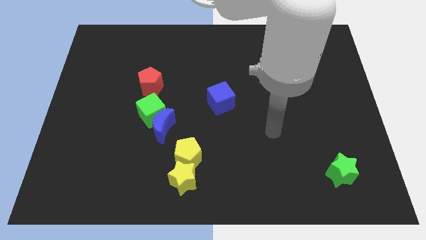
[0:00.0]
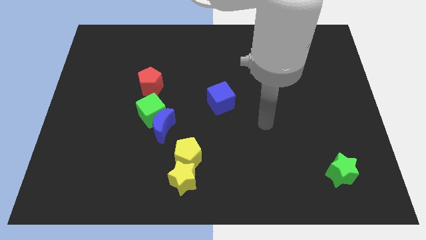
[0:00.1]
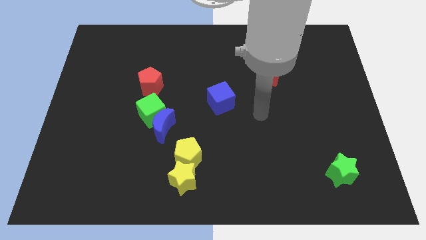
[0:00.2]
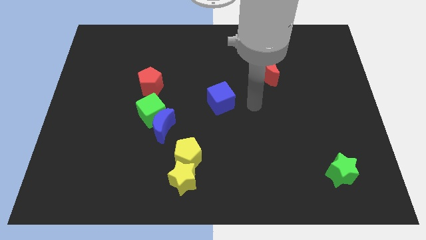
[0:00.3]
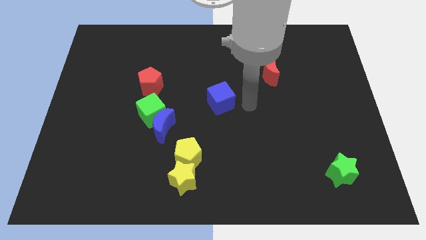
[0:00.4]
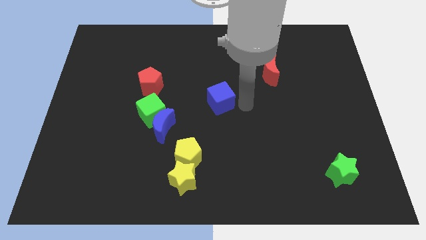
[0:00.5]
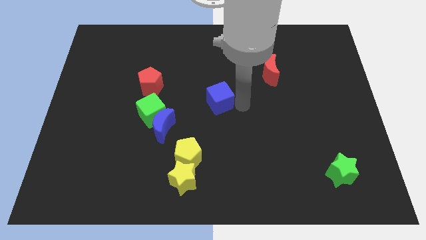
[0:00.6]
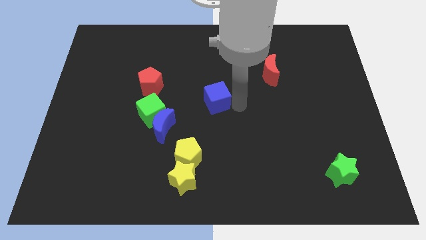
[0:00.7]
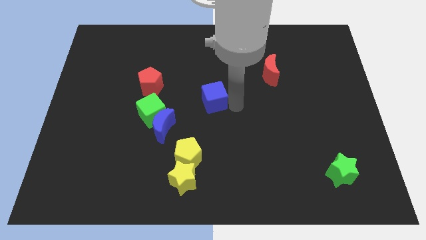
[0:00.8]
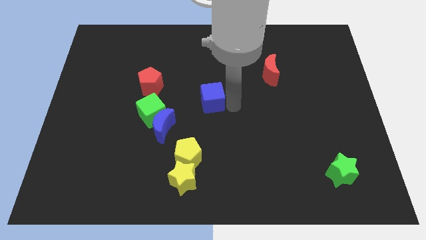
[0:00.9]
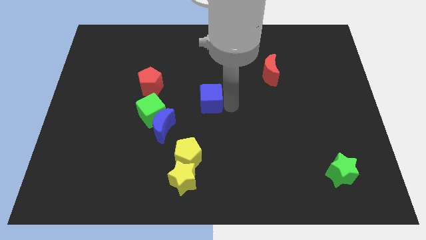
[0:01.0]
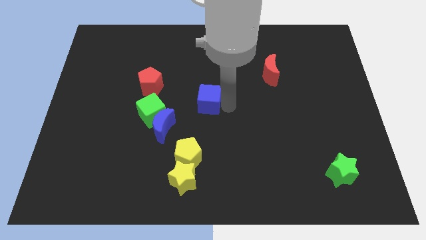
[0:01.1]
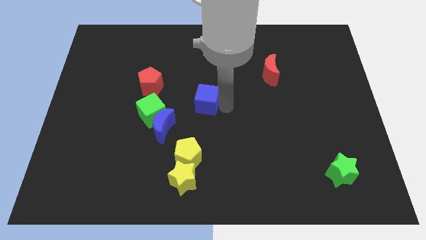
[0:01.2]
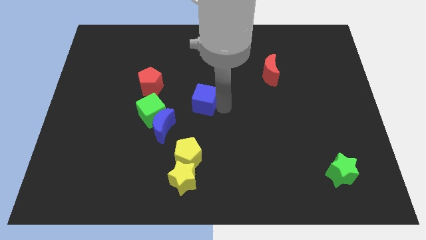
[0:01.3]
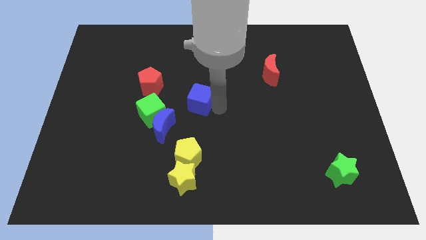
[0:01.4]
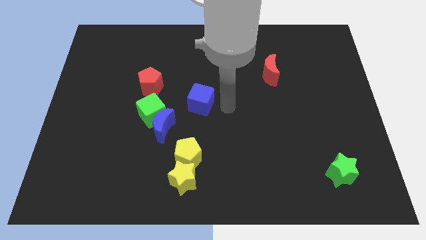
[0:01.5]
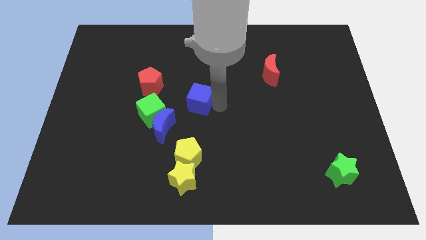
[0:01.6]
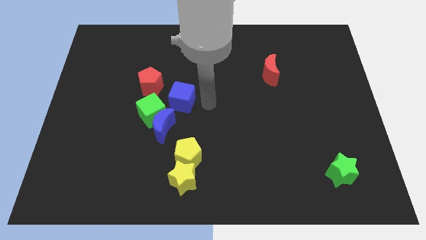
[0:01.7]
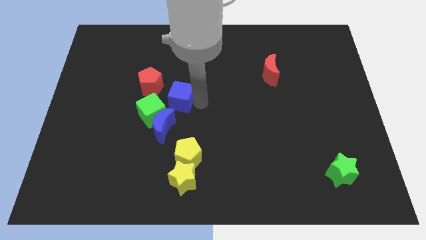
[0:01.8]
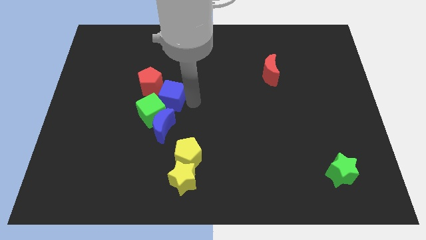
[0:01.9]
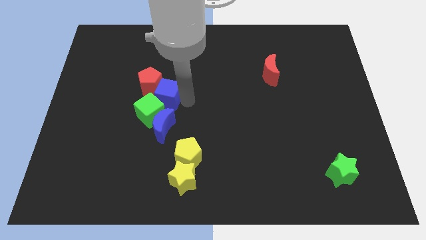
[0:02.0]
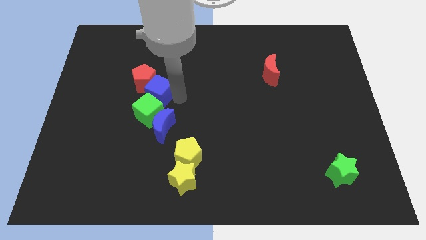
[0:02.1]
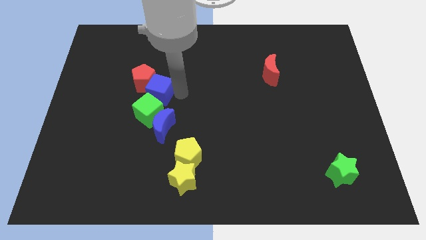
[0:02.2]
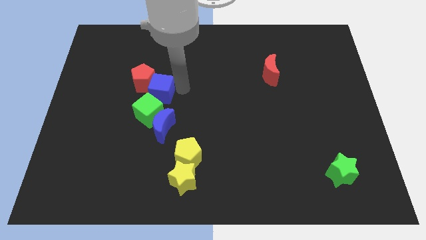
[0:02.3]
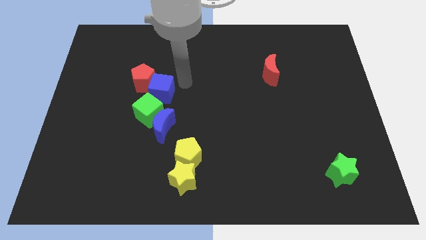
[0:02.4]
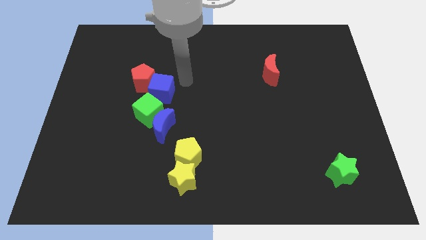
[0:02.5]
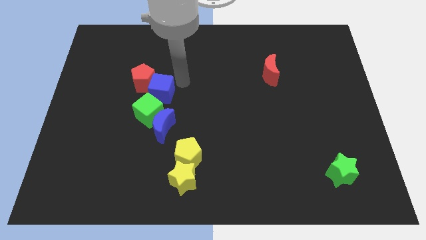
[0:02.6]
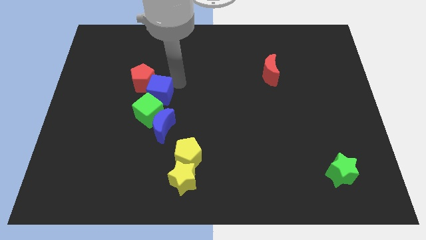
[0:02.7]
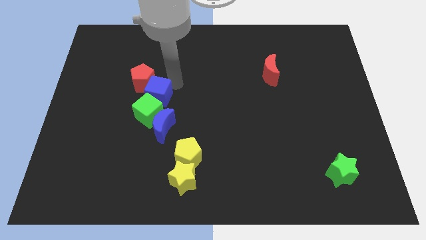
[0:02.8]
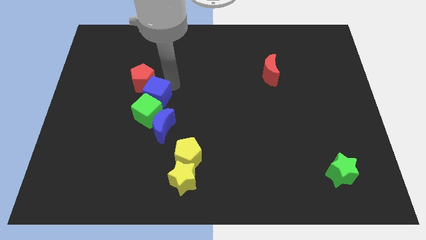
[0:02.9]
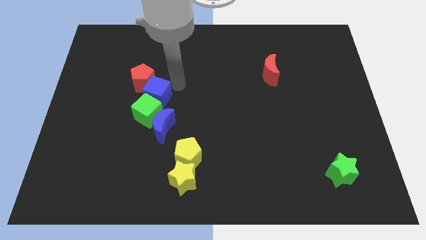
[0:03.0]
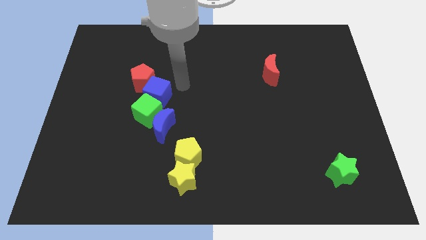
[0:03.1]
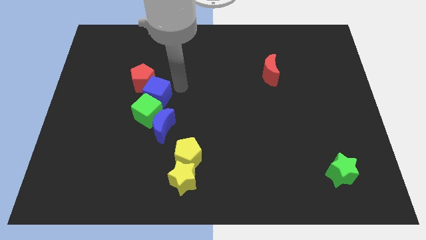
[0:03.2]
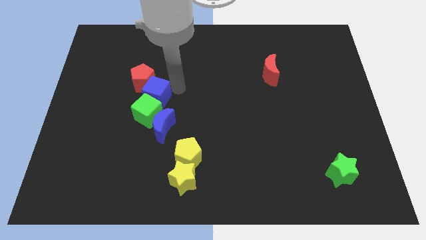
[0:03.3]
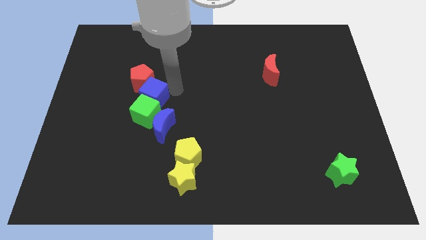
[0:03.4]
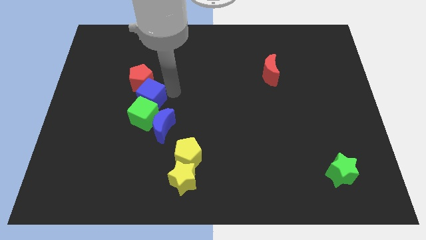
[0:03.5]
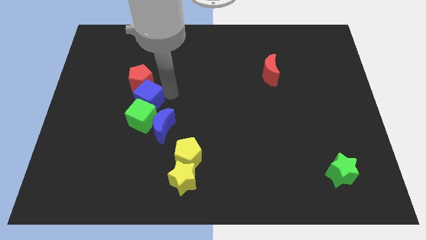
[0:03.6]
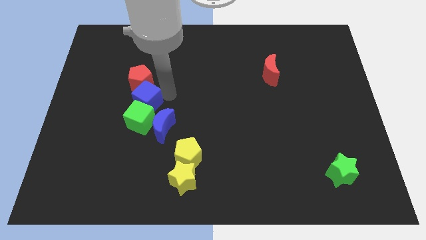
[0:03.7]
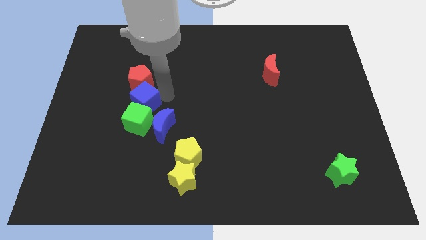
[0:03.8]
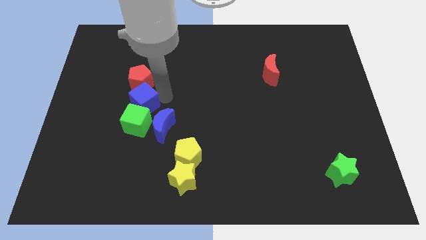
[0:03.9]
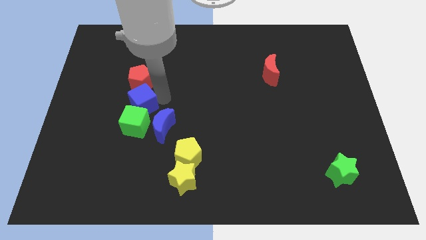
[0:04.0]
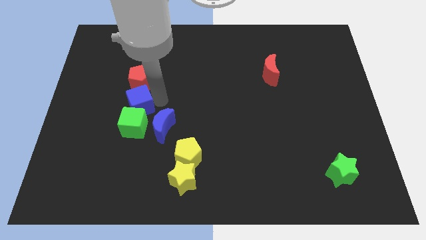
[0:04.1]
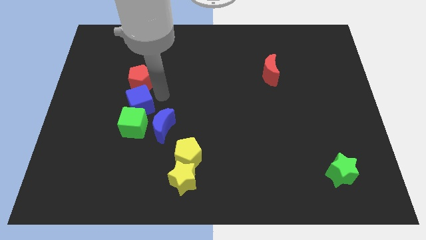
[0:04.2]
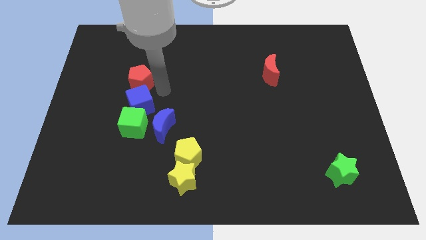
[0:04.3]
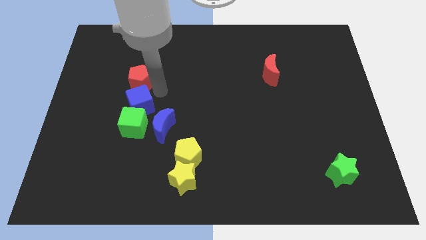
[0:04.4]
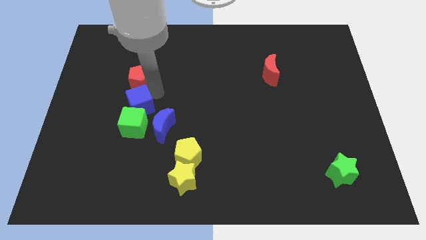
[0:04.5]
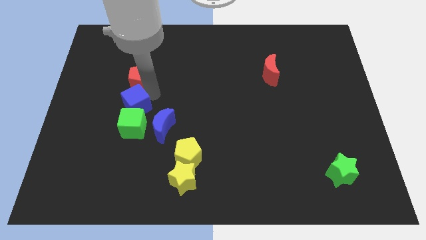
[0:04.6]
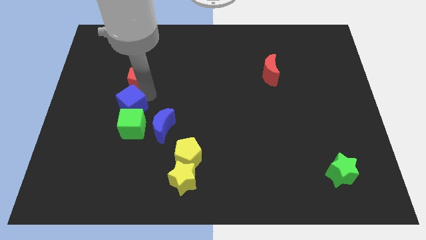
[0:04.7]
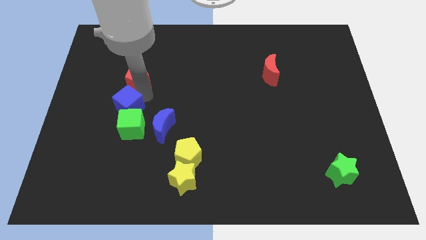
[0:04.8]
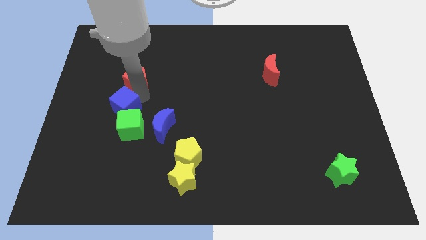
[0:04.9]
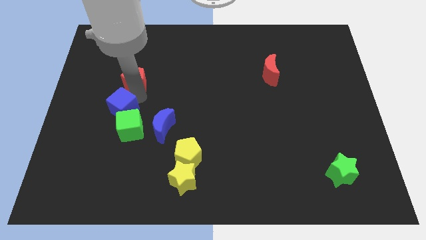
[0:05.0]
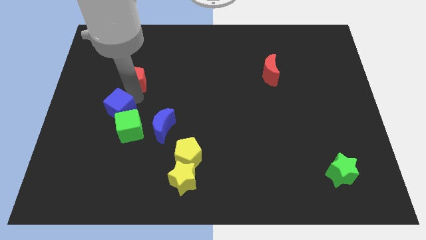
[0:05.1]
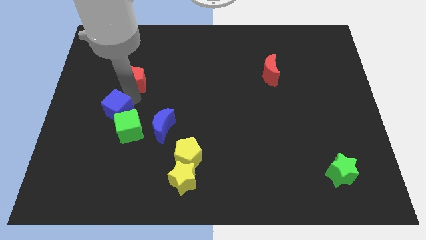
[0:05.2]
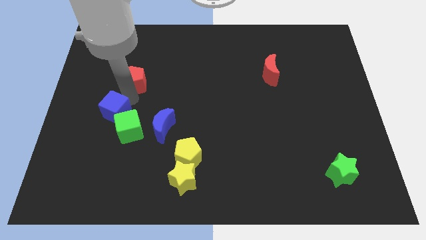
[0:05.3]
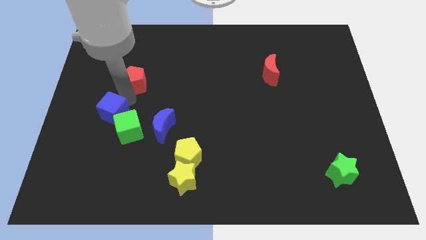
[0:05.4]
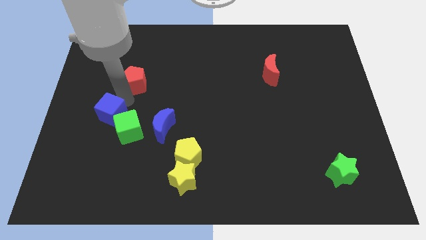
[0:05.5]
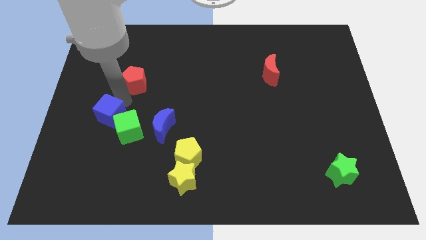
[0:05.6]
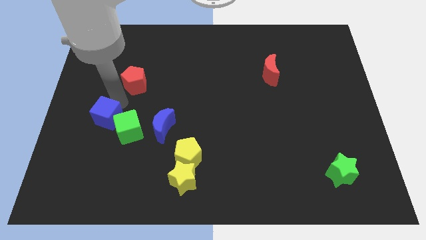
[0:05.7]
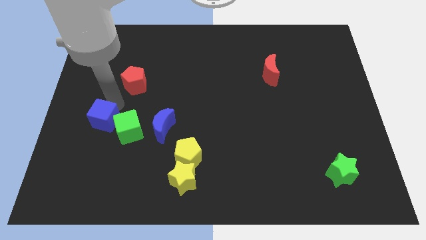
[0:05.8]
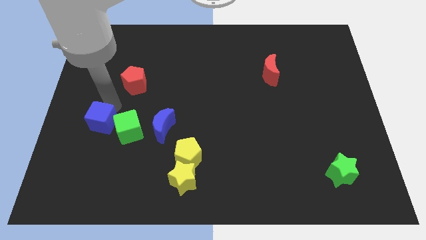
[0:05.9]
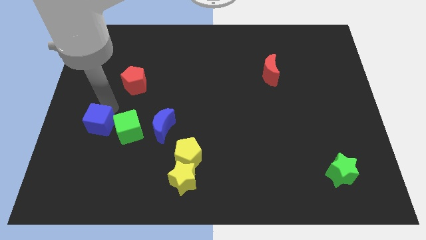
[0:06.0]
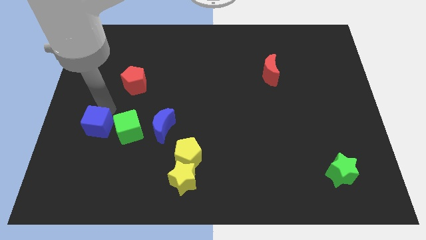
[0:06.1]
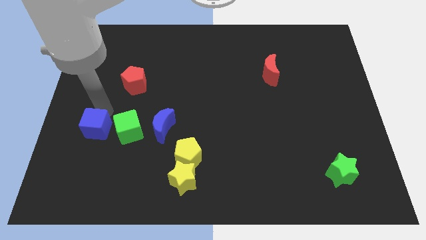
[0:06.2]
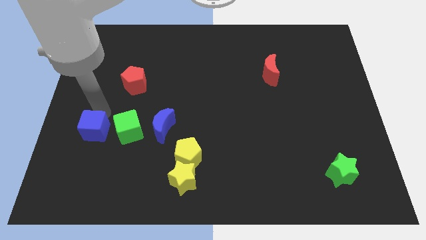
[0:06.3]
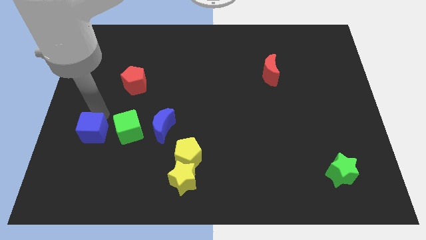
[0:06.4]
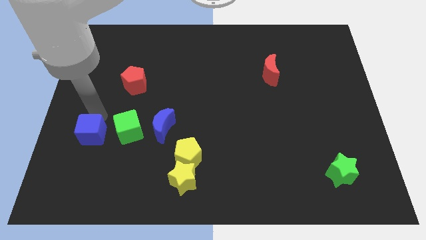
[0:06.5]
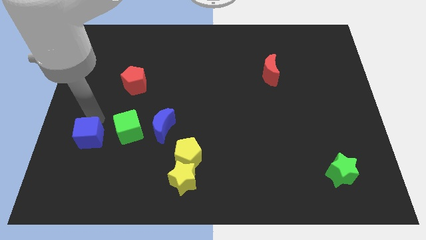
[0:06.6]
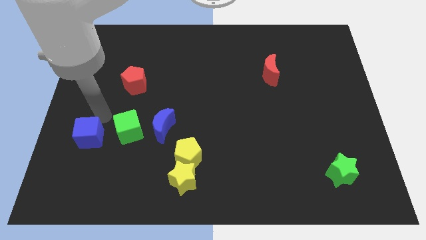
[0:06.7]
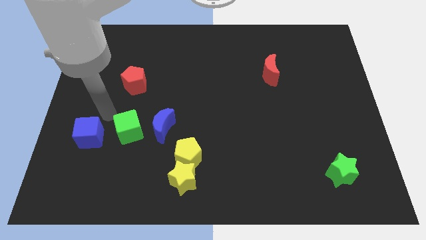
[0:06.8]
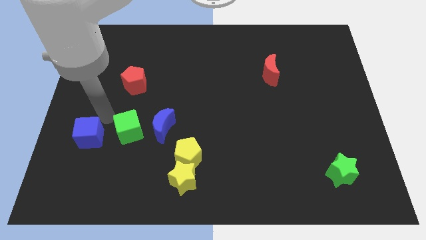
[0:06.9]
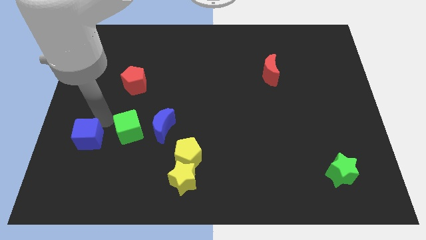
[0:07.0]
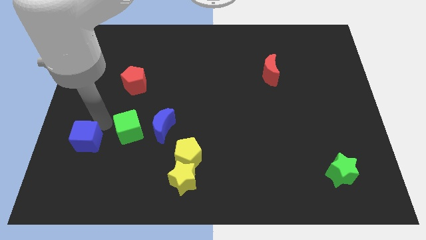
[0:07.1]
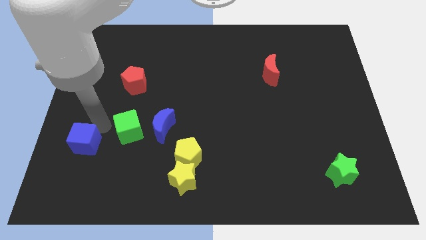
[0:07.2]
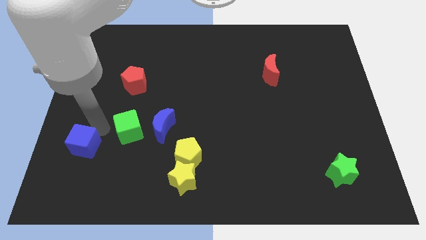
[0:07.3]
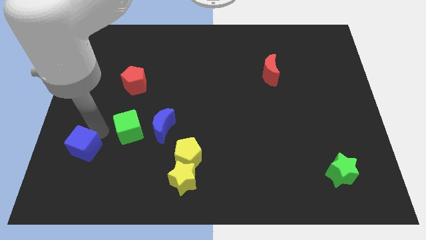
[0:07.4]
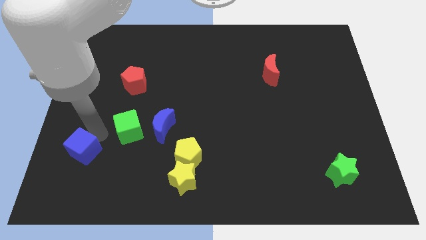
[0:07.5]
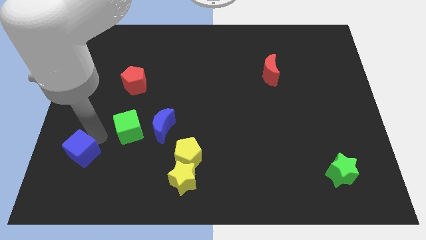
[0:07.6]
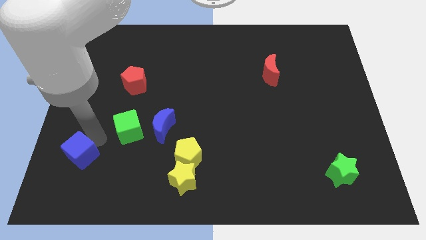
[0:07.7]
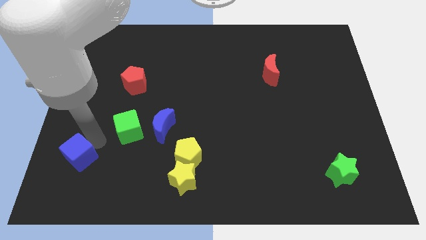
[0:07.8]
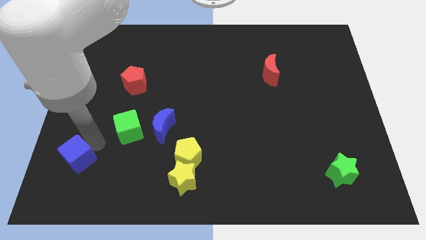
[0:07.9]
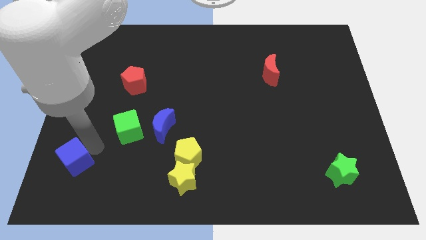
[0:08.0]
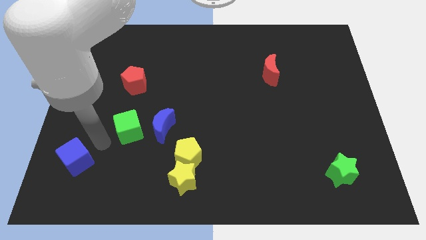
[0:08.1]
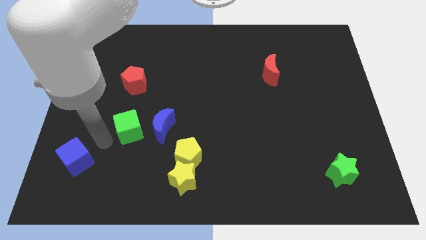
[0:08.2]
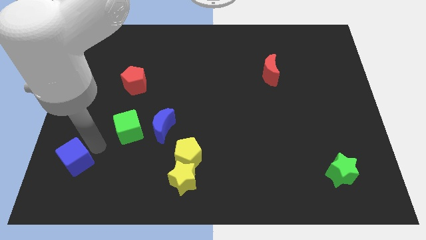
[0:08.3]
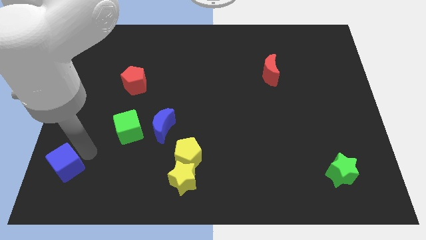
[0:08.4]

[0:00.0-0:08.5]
push the blue cube to the bottom left corner
